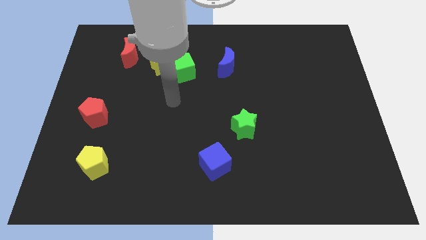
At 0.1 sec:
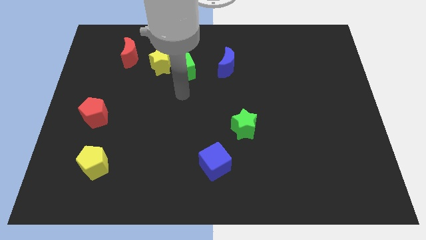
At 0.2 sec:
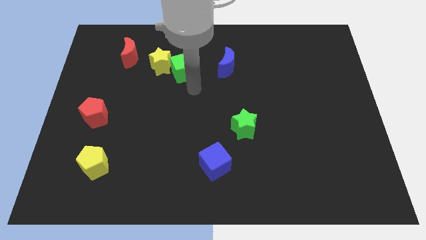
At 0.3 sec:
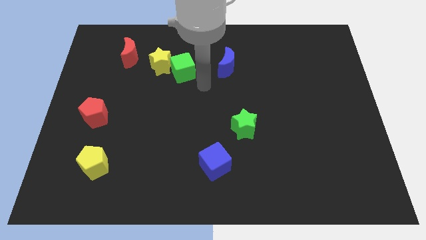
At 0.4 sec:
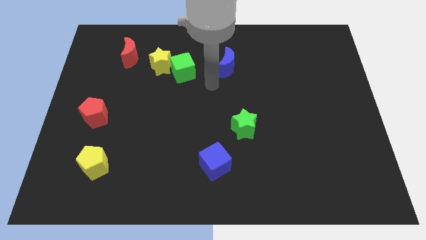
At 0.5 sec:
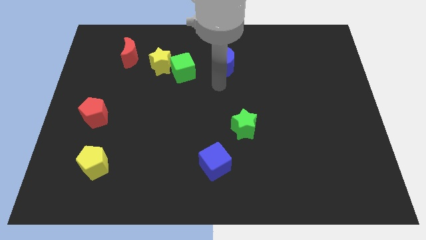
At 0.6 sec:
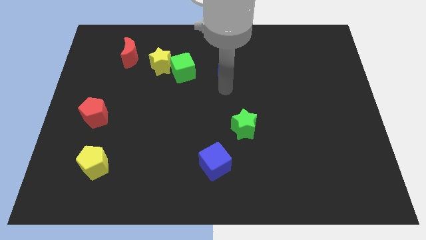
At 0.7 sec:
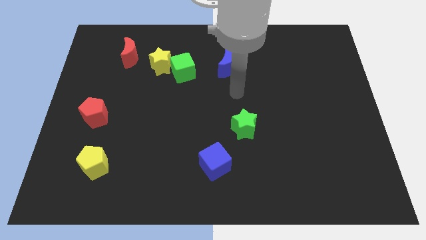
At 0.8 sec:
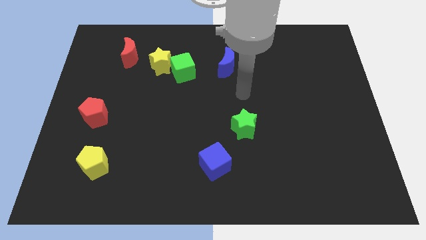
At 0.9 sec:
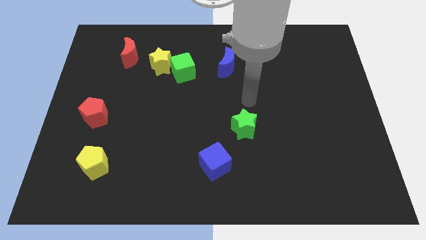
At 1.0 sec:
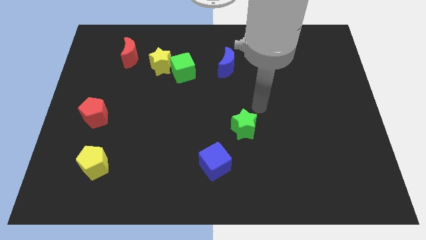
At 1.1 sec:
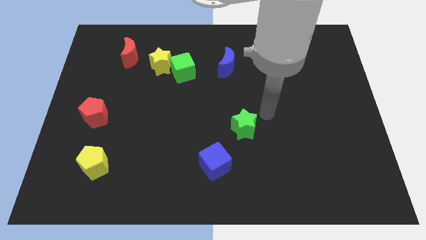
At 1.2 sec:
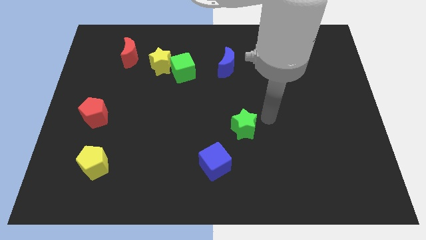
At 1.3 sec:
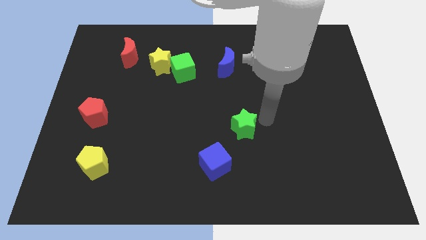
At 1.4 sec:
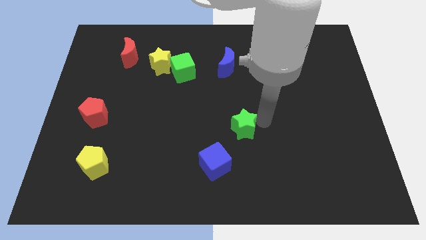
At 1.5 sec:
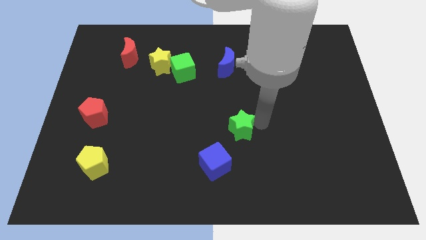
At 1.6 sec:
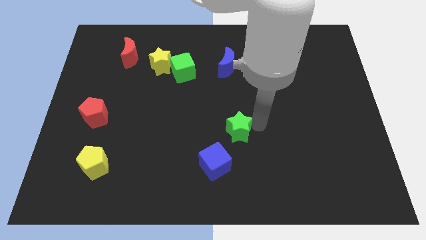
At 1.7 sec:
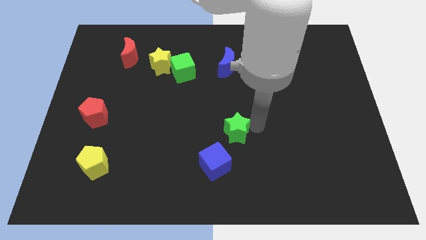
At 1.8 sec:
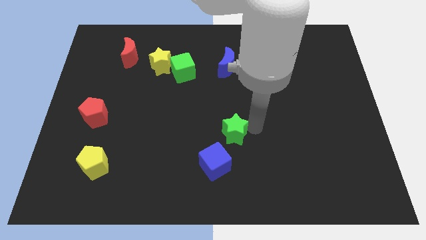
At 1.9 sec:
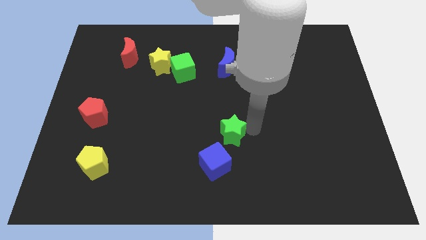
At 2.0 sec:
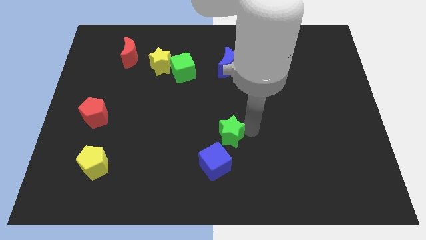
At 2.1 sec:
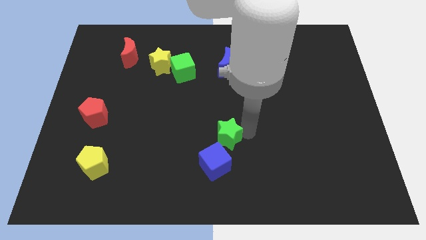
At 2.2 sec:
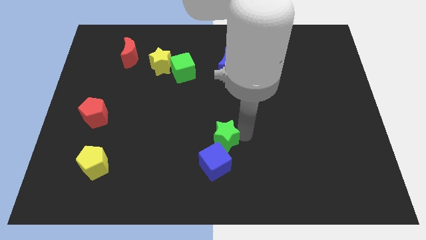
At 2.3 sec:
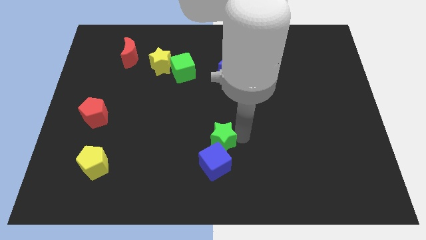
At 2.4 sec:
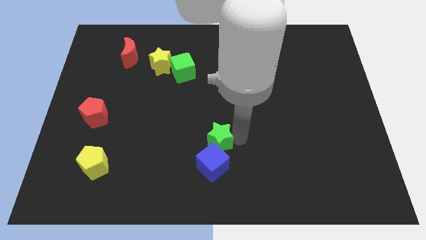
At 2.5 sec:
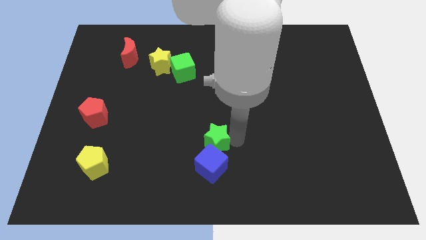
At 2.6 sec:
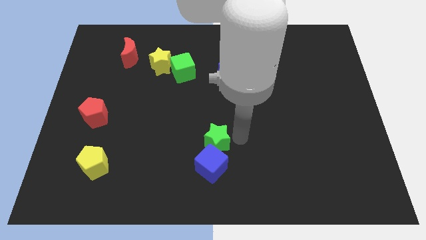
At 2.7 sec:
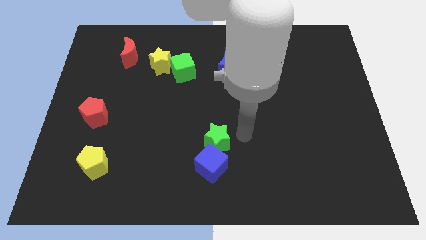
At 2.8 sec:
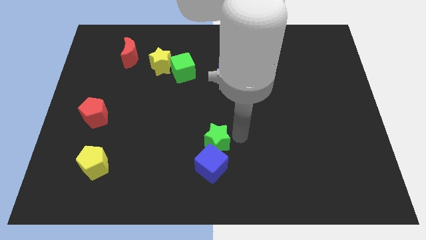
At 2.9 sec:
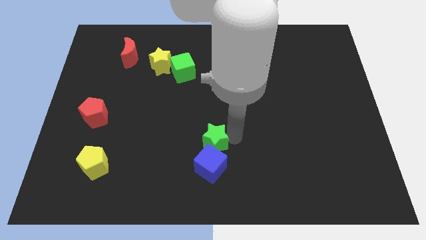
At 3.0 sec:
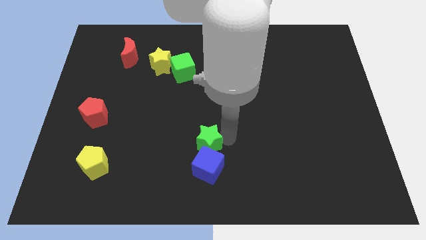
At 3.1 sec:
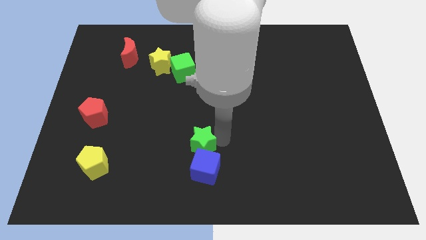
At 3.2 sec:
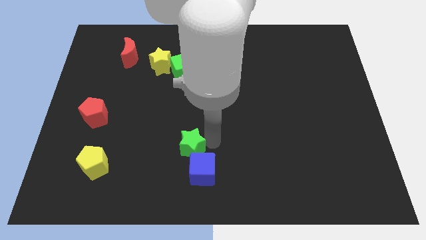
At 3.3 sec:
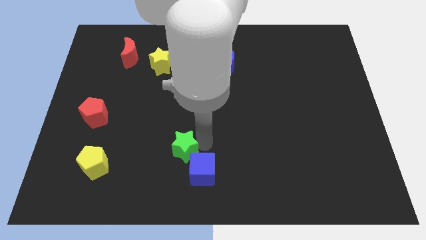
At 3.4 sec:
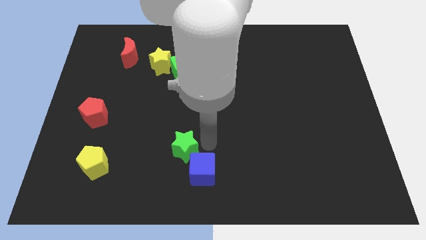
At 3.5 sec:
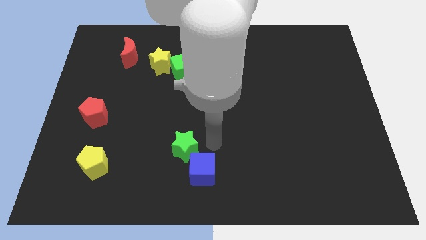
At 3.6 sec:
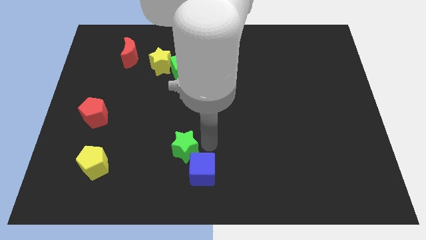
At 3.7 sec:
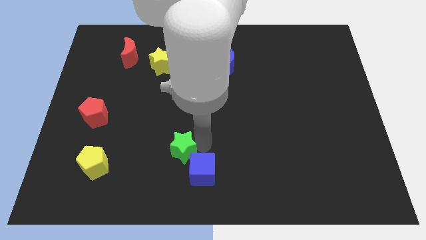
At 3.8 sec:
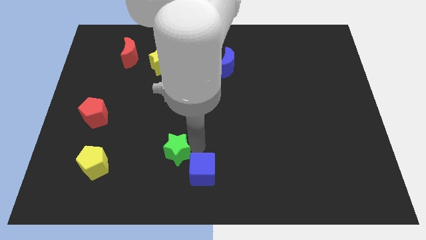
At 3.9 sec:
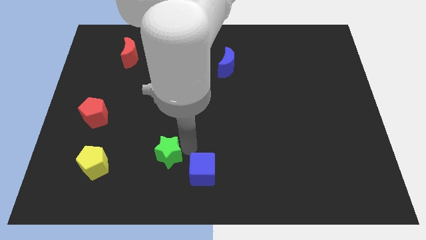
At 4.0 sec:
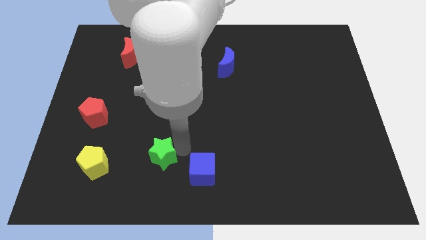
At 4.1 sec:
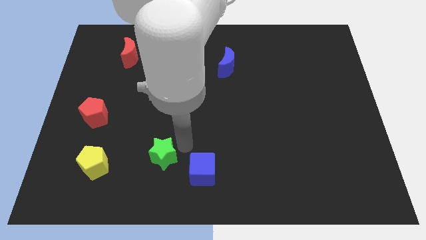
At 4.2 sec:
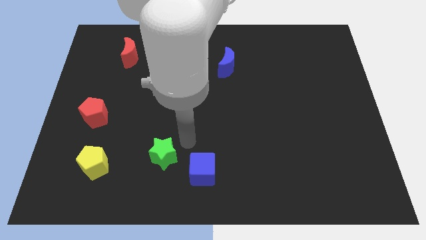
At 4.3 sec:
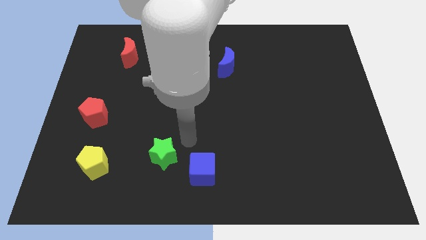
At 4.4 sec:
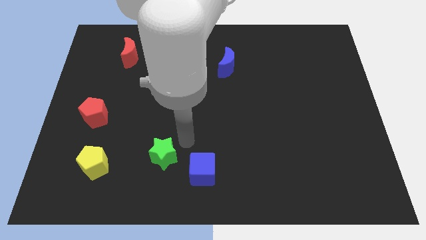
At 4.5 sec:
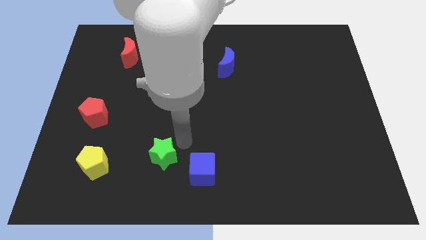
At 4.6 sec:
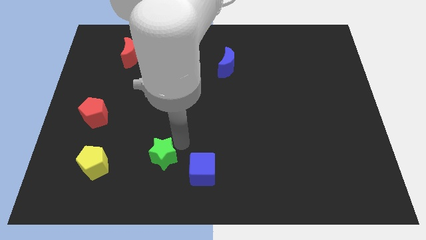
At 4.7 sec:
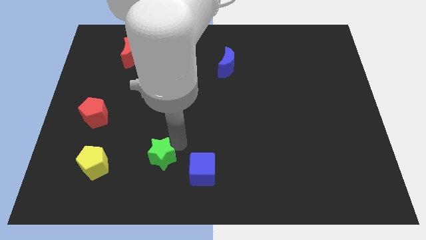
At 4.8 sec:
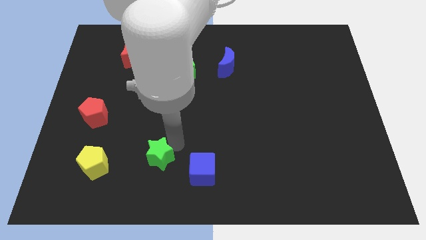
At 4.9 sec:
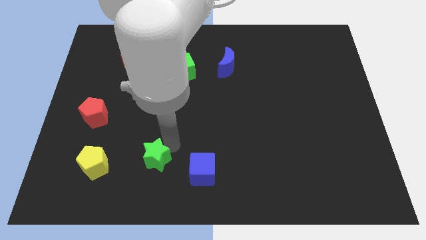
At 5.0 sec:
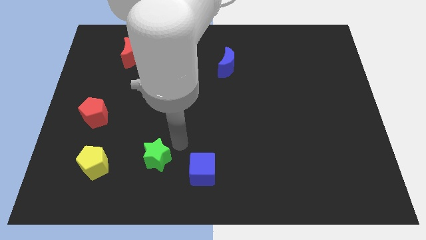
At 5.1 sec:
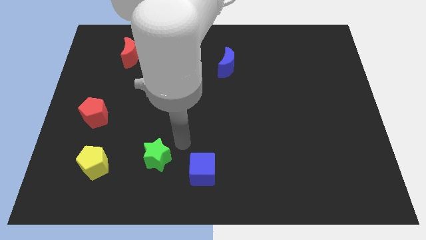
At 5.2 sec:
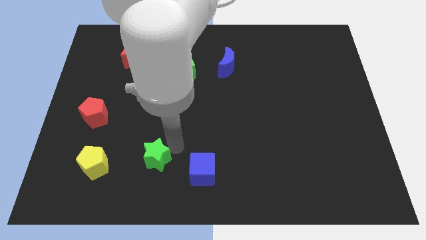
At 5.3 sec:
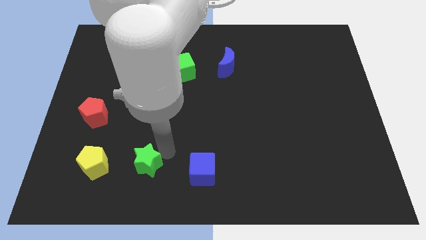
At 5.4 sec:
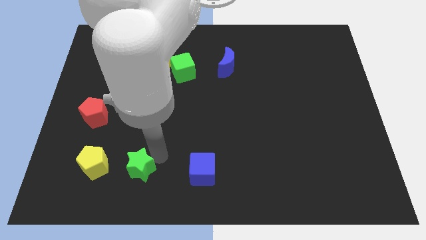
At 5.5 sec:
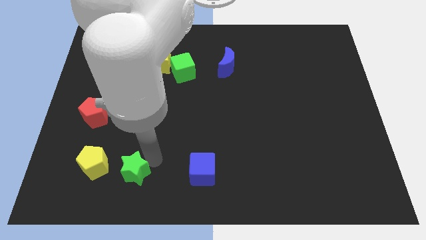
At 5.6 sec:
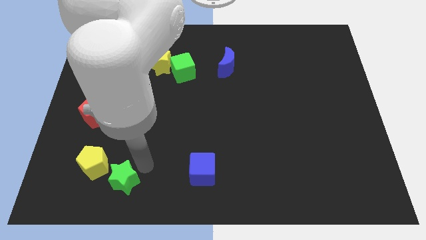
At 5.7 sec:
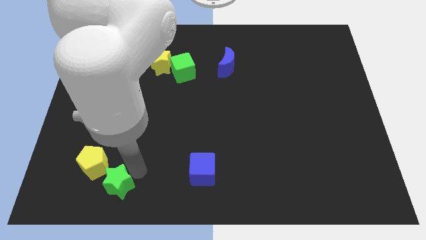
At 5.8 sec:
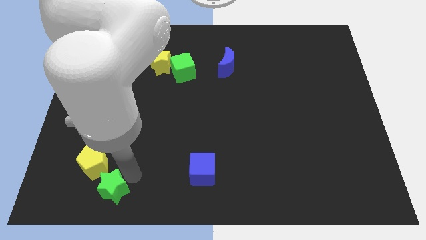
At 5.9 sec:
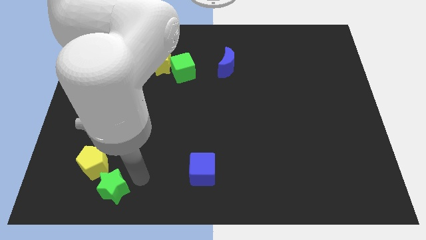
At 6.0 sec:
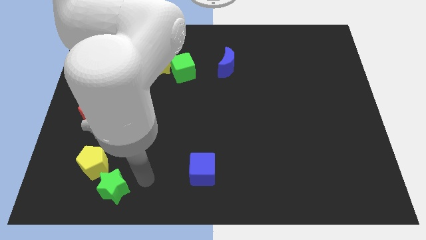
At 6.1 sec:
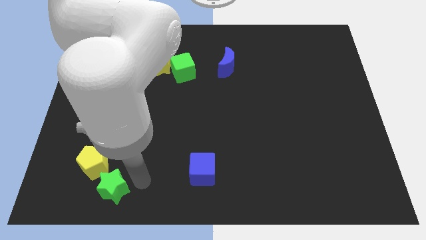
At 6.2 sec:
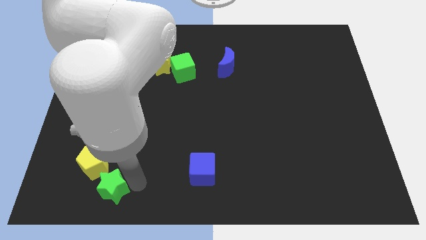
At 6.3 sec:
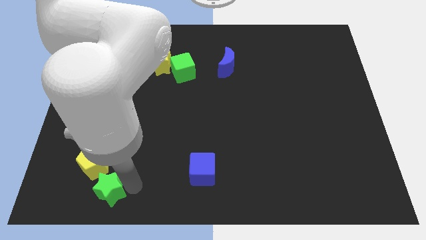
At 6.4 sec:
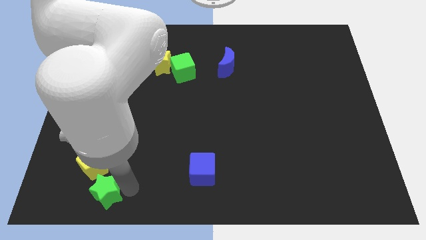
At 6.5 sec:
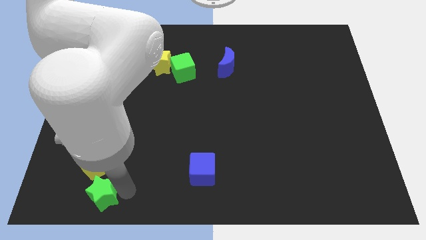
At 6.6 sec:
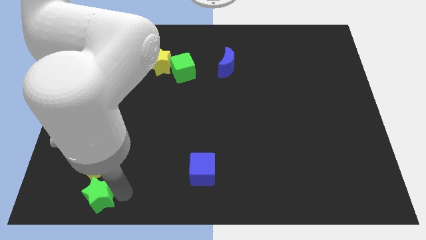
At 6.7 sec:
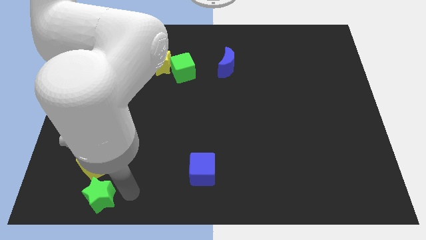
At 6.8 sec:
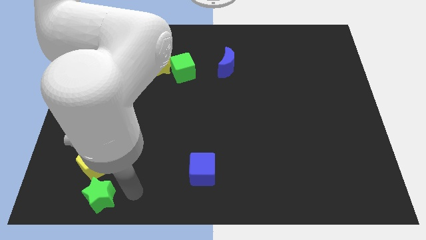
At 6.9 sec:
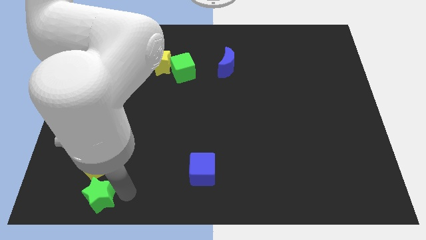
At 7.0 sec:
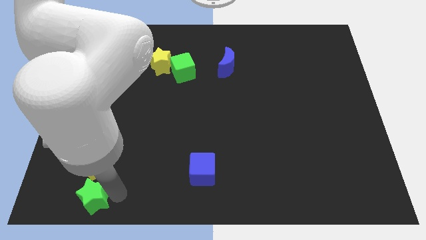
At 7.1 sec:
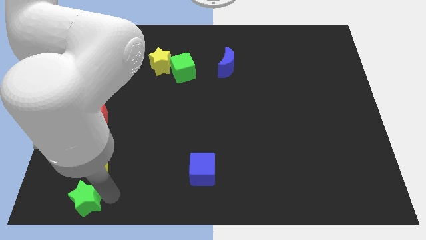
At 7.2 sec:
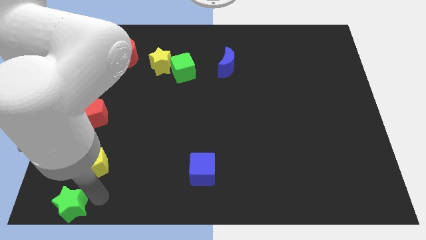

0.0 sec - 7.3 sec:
put the green star to the lower left corner
